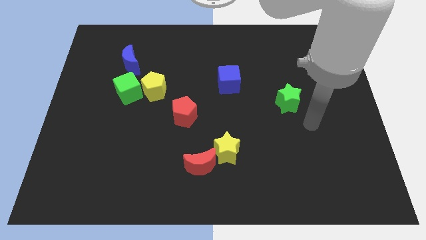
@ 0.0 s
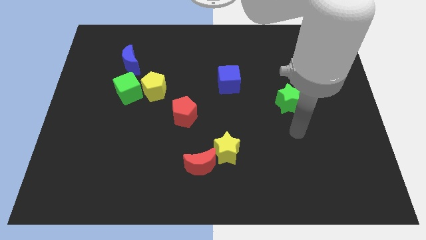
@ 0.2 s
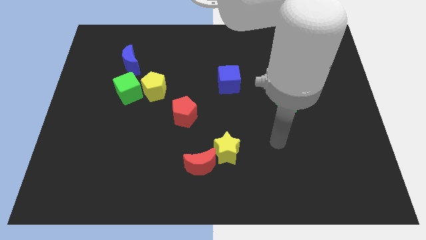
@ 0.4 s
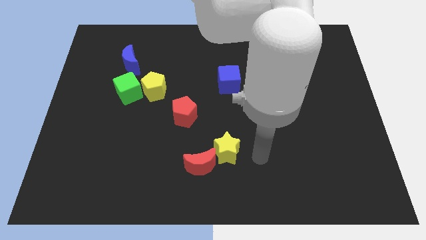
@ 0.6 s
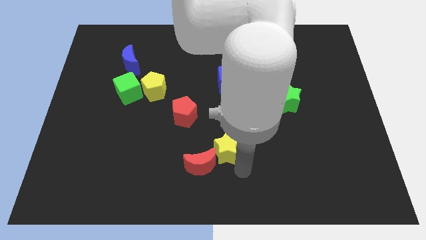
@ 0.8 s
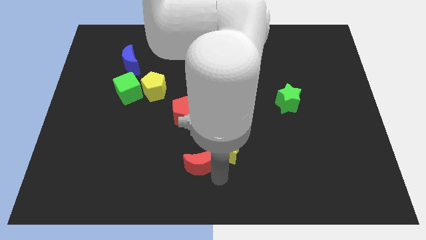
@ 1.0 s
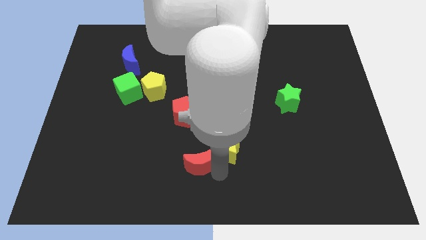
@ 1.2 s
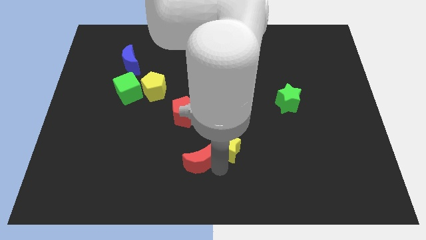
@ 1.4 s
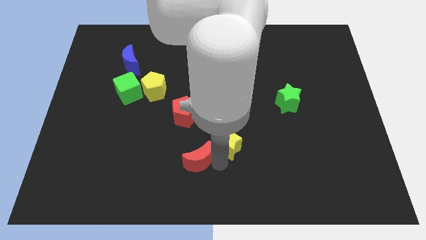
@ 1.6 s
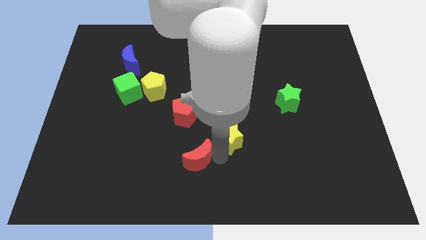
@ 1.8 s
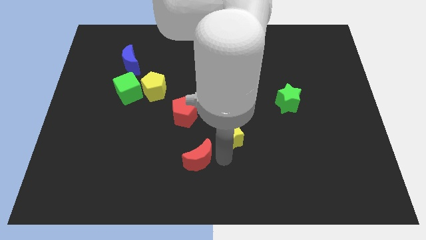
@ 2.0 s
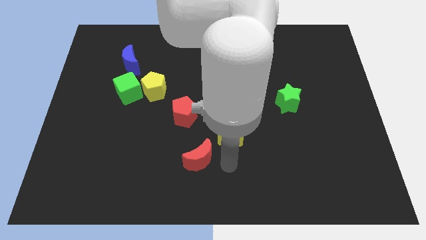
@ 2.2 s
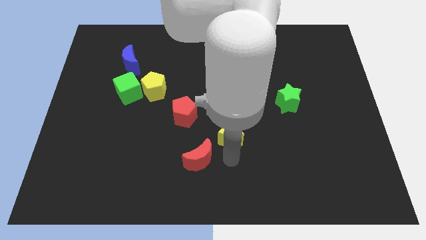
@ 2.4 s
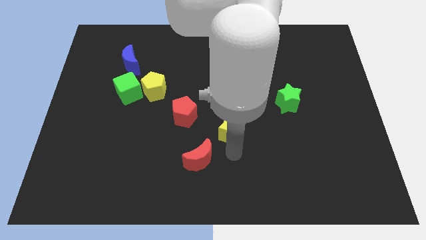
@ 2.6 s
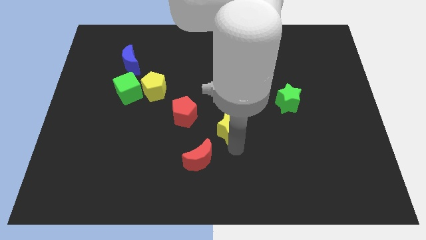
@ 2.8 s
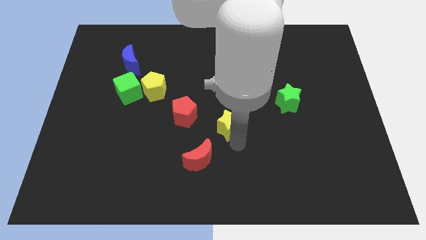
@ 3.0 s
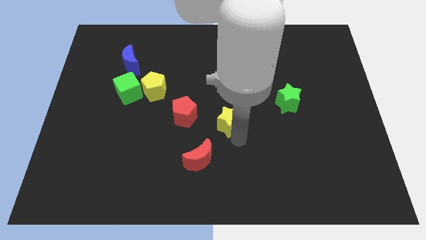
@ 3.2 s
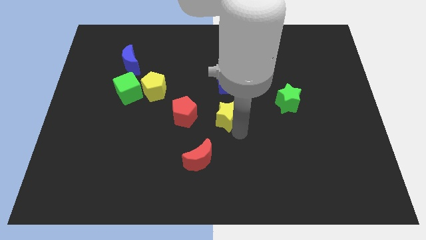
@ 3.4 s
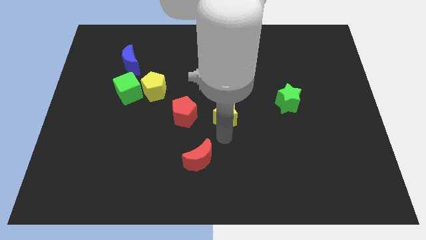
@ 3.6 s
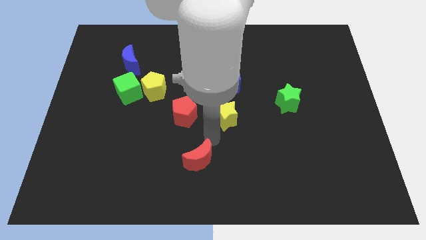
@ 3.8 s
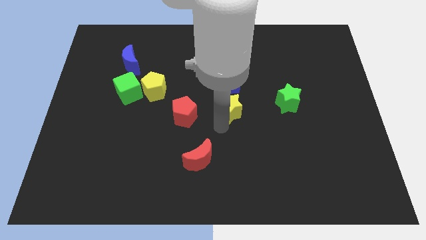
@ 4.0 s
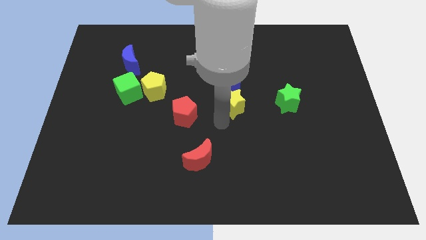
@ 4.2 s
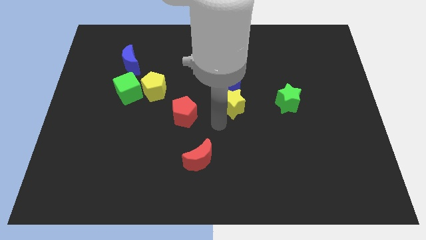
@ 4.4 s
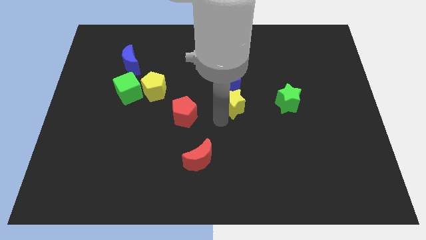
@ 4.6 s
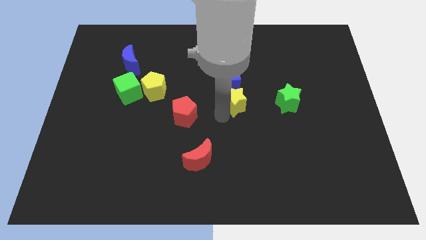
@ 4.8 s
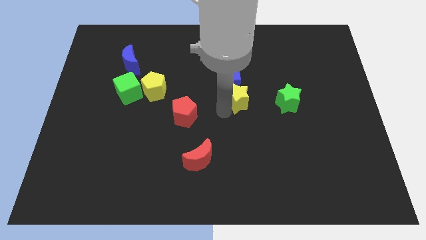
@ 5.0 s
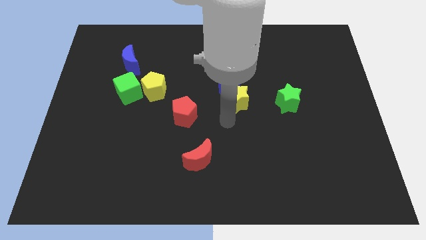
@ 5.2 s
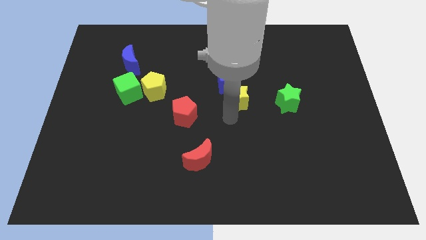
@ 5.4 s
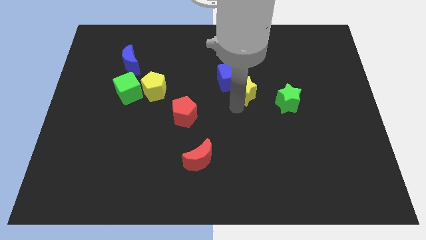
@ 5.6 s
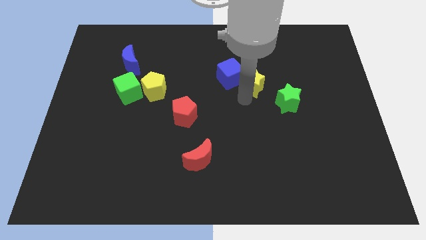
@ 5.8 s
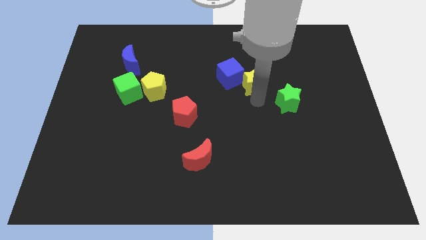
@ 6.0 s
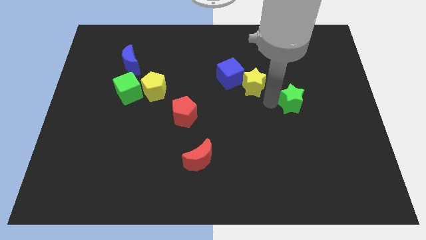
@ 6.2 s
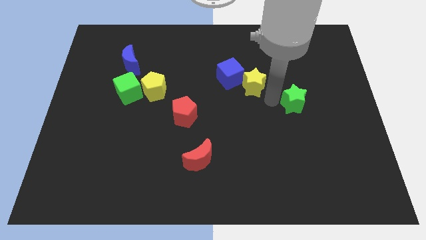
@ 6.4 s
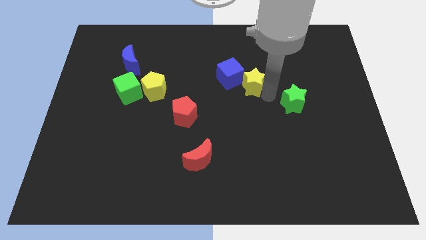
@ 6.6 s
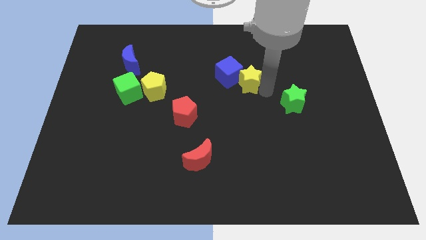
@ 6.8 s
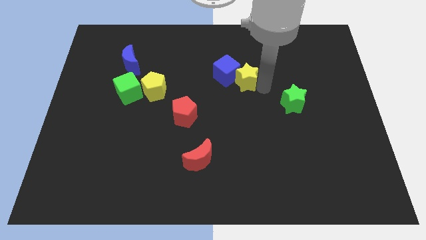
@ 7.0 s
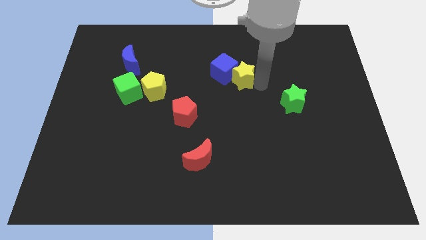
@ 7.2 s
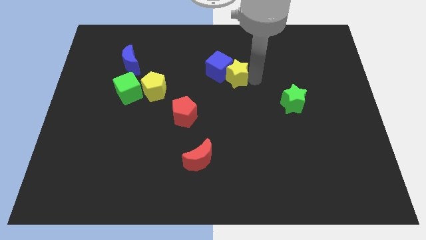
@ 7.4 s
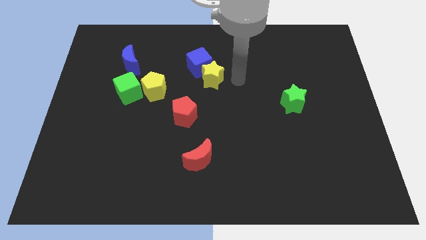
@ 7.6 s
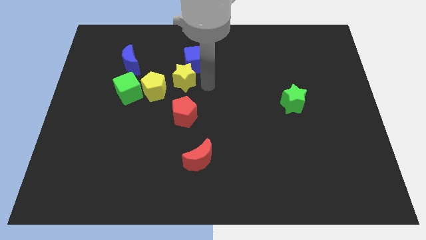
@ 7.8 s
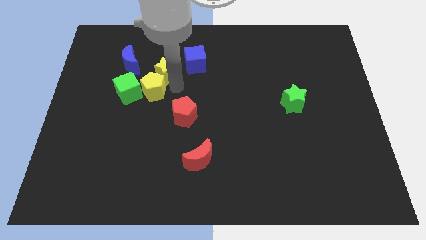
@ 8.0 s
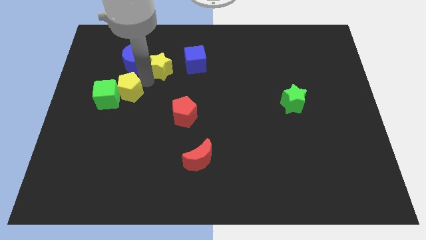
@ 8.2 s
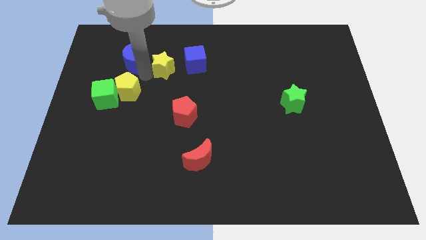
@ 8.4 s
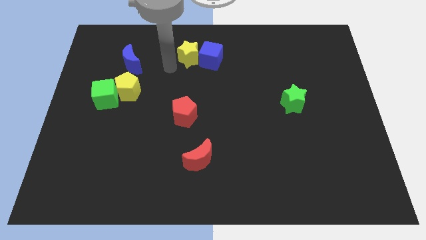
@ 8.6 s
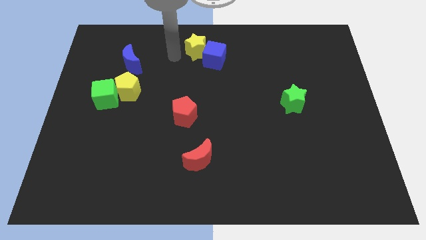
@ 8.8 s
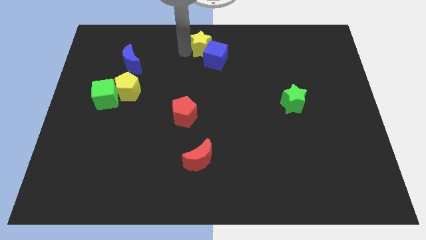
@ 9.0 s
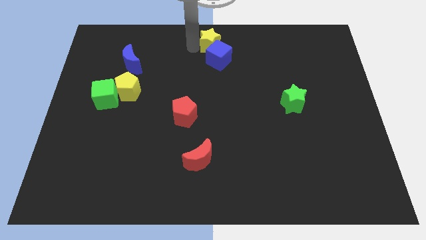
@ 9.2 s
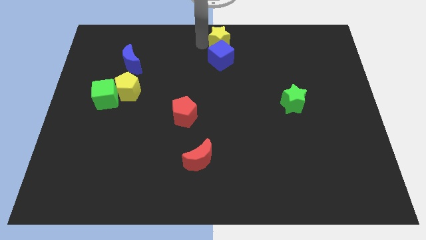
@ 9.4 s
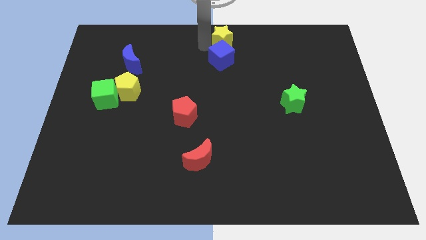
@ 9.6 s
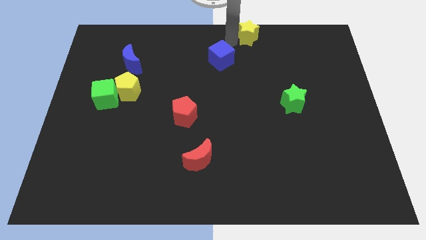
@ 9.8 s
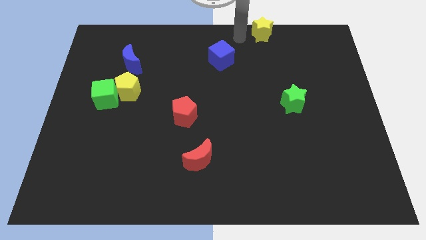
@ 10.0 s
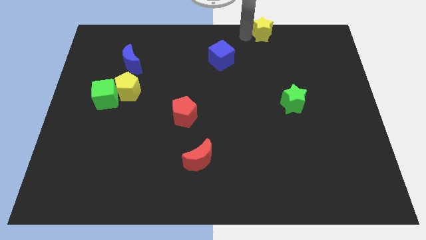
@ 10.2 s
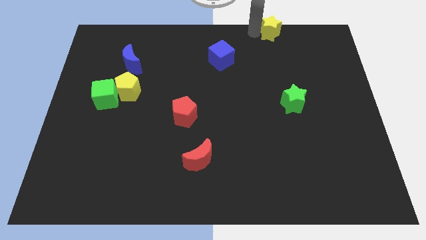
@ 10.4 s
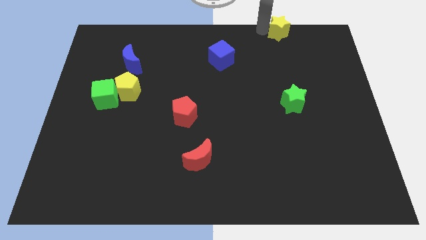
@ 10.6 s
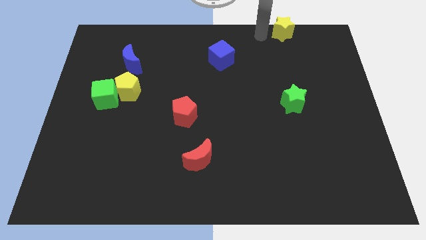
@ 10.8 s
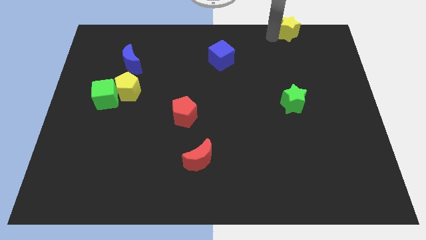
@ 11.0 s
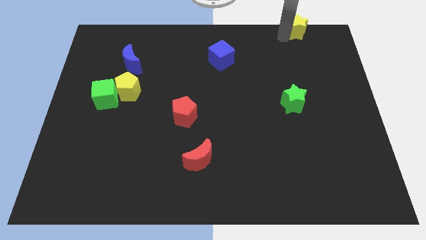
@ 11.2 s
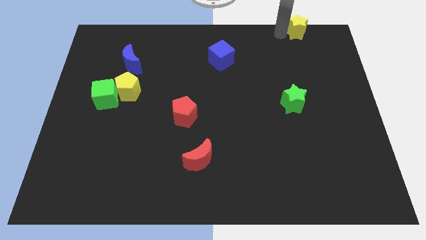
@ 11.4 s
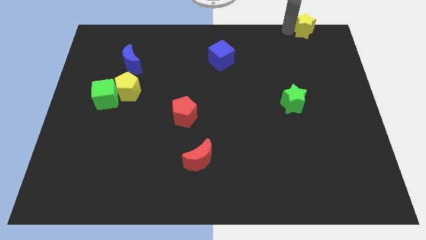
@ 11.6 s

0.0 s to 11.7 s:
put the yellow star to the top right
